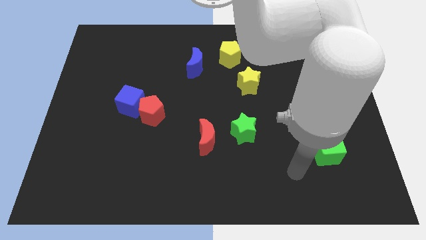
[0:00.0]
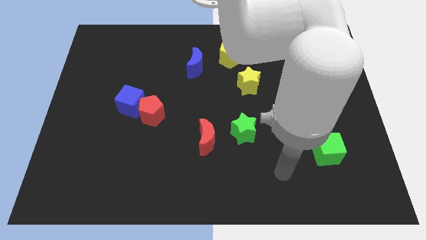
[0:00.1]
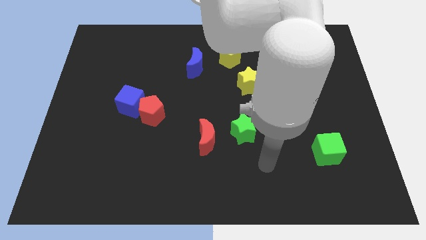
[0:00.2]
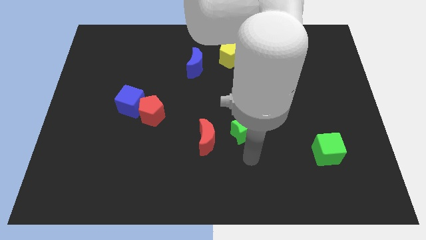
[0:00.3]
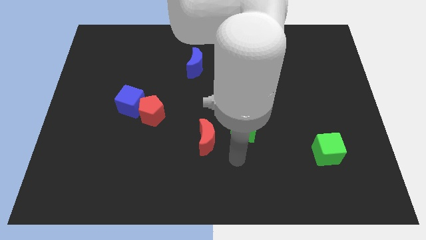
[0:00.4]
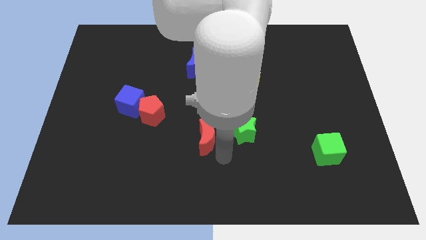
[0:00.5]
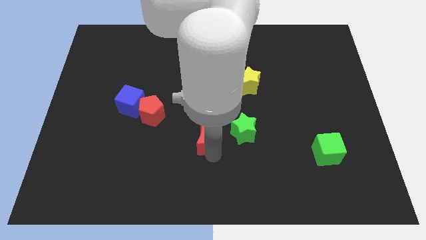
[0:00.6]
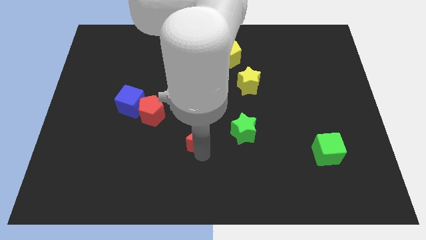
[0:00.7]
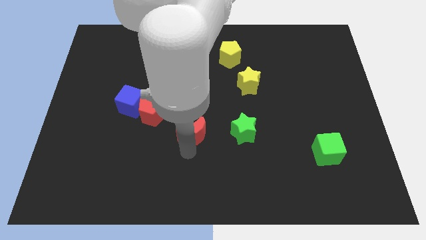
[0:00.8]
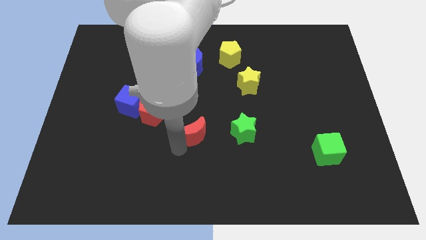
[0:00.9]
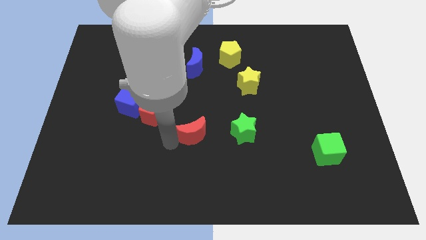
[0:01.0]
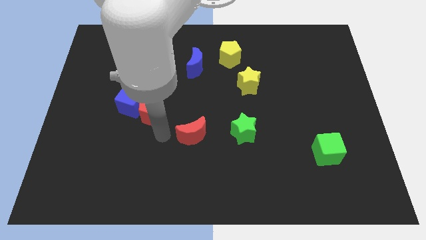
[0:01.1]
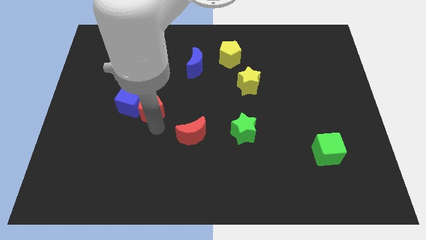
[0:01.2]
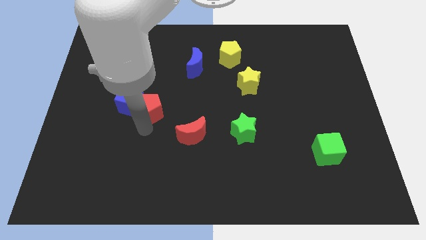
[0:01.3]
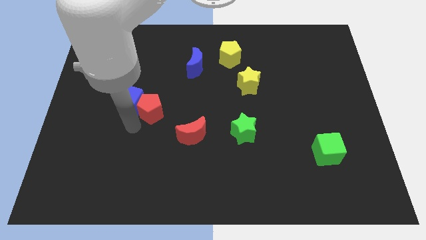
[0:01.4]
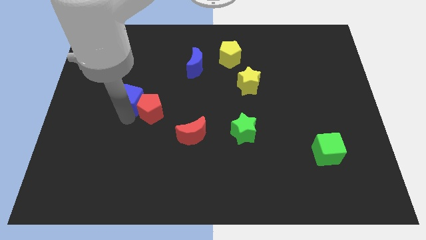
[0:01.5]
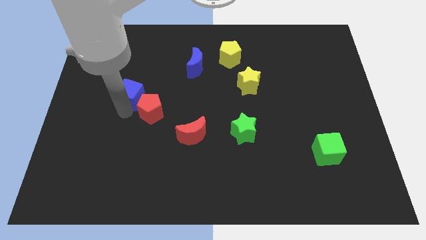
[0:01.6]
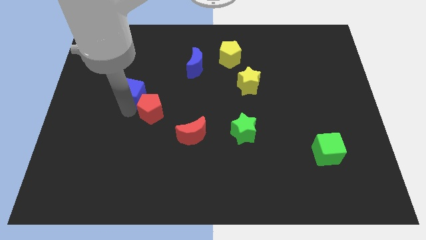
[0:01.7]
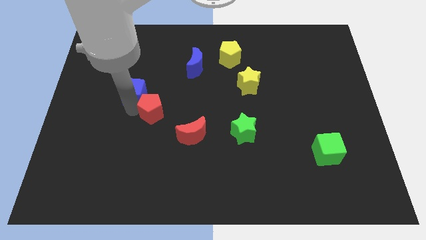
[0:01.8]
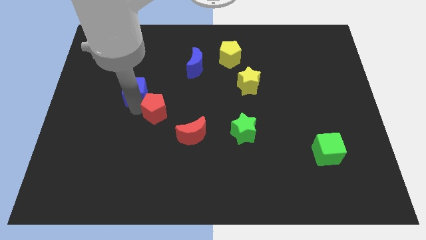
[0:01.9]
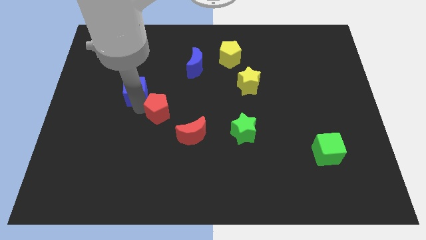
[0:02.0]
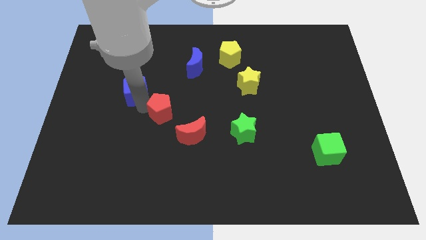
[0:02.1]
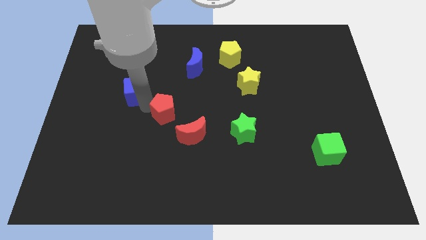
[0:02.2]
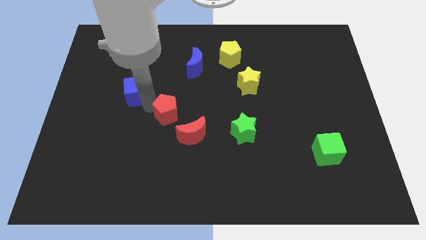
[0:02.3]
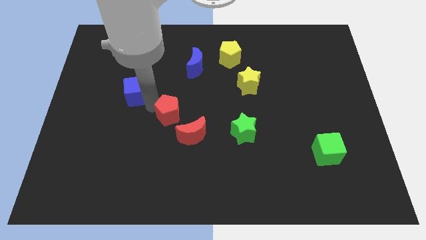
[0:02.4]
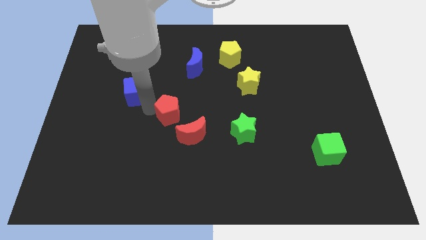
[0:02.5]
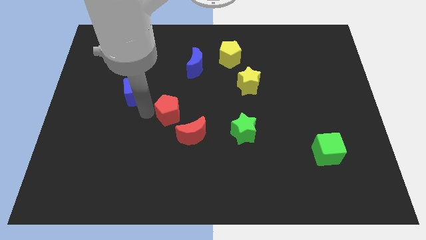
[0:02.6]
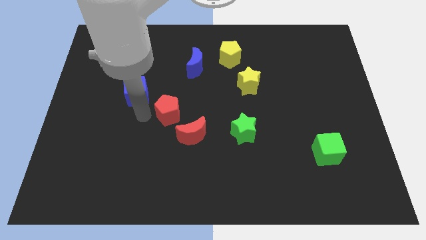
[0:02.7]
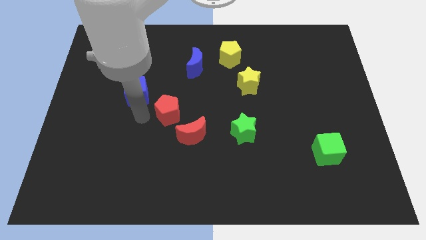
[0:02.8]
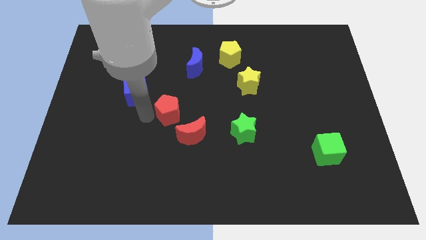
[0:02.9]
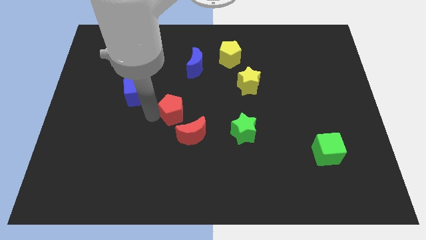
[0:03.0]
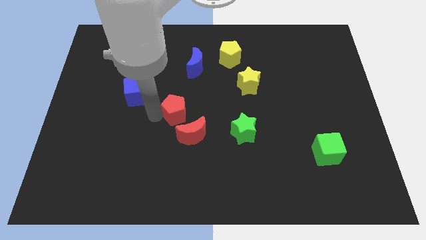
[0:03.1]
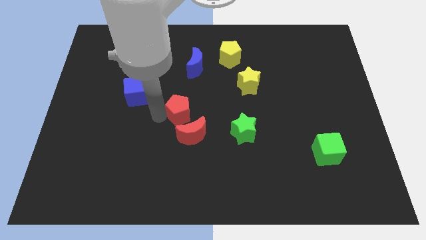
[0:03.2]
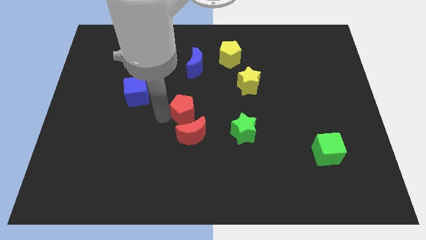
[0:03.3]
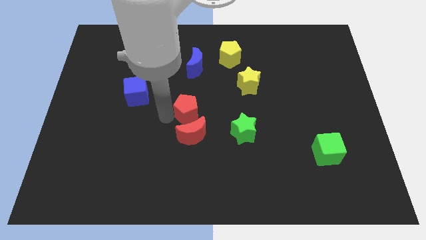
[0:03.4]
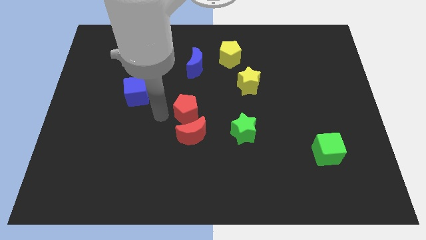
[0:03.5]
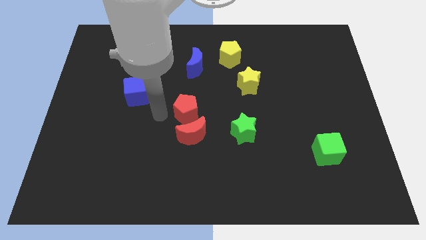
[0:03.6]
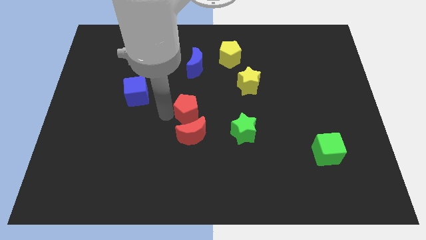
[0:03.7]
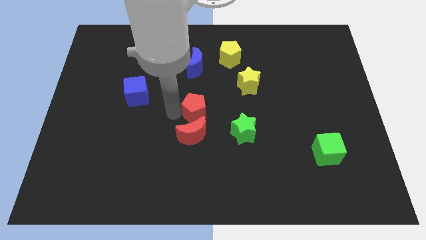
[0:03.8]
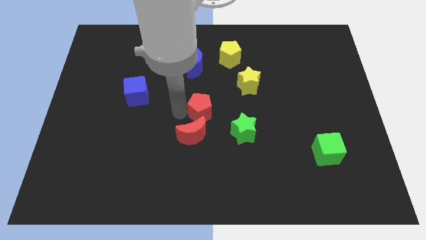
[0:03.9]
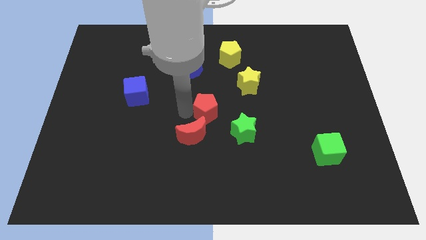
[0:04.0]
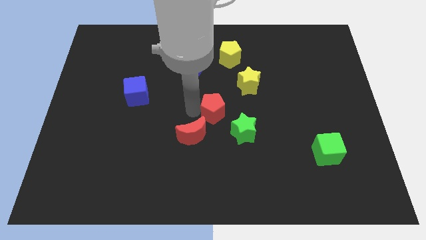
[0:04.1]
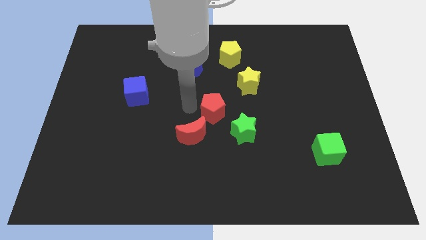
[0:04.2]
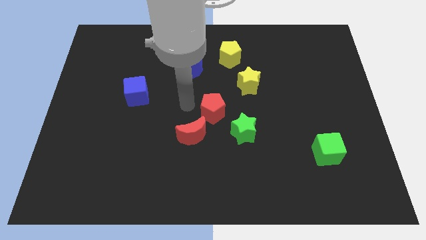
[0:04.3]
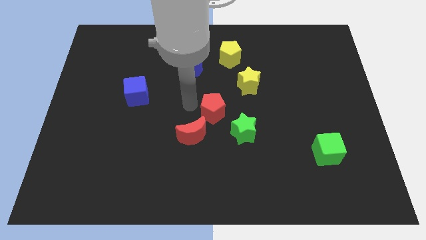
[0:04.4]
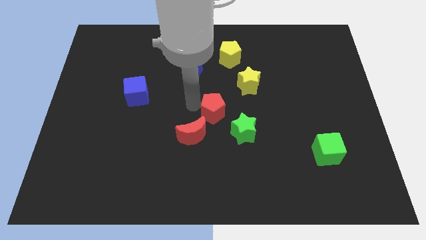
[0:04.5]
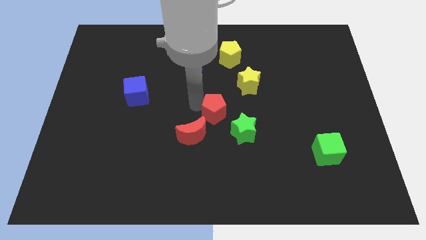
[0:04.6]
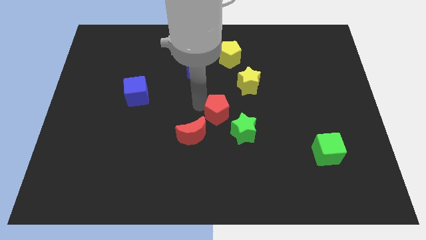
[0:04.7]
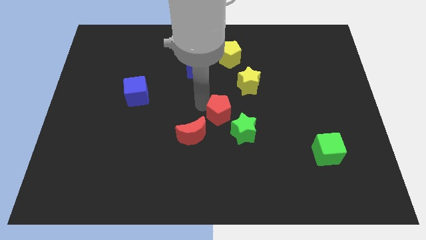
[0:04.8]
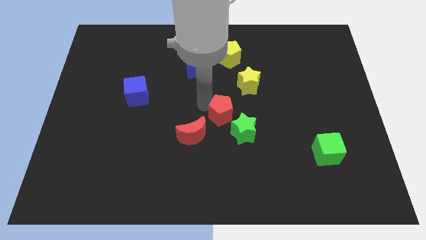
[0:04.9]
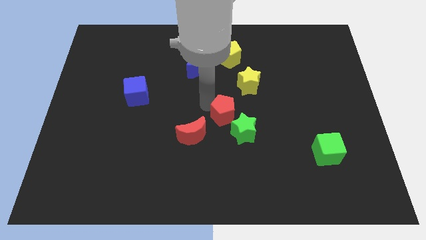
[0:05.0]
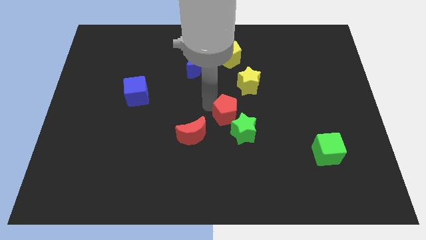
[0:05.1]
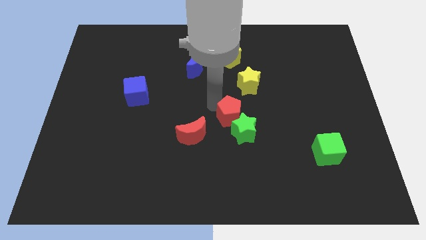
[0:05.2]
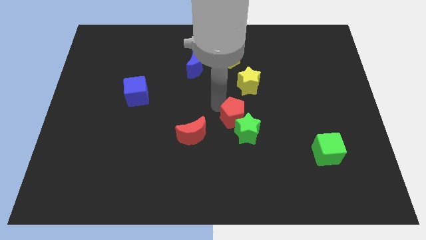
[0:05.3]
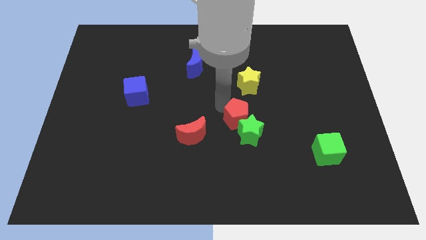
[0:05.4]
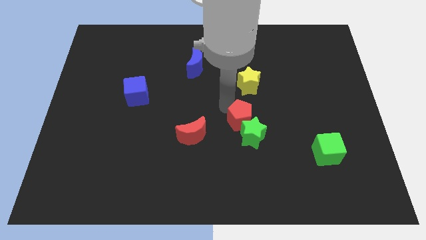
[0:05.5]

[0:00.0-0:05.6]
move the red pentagon right

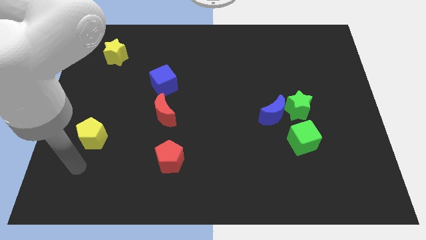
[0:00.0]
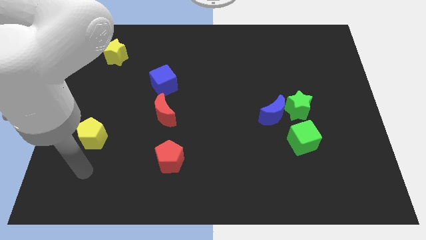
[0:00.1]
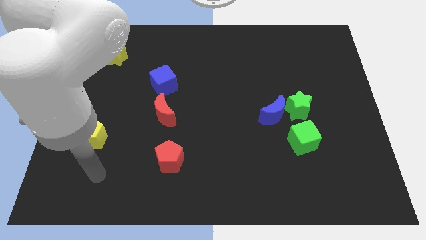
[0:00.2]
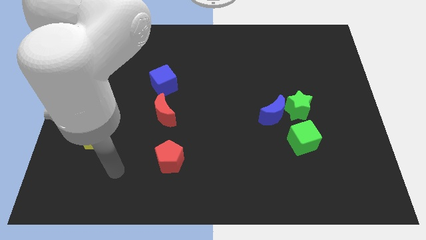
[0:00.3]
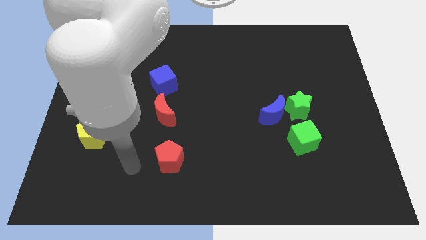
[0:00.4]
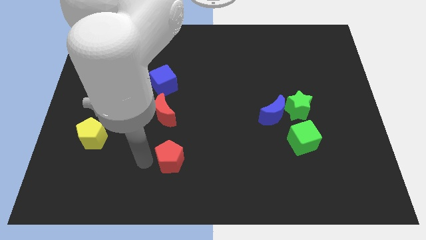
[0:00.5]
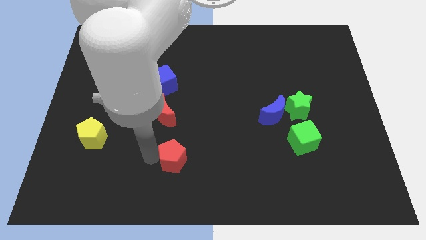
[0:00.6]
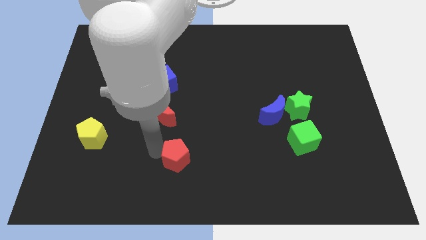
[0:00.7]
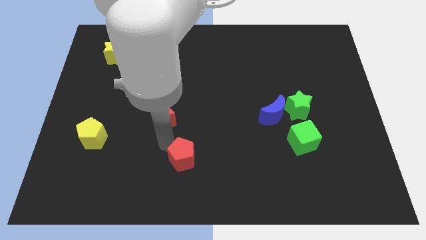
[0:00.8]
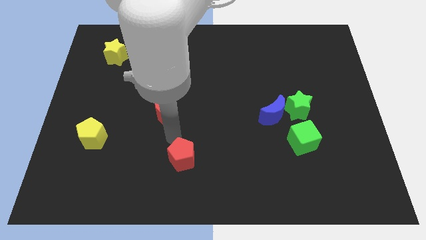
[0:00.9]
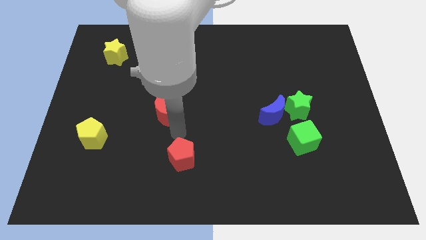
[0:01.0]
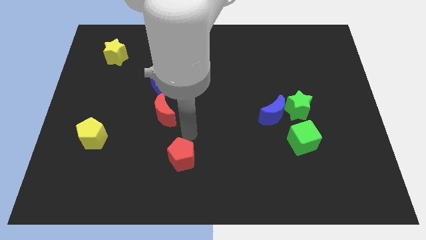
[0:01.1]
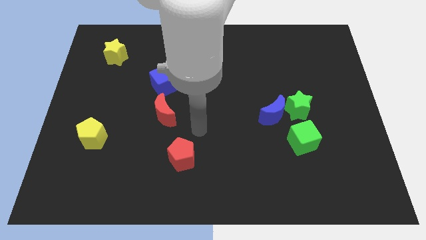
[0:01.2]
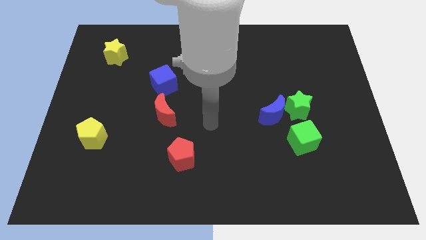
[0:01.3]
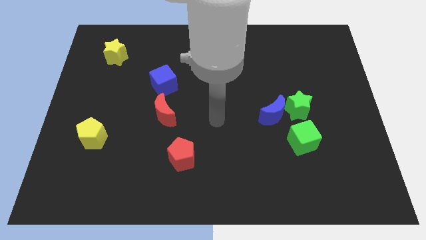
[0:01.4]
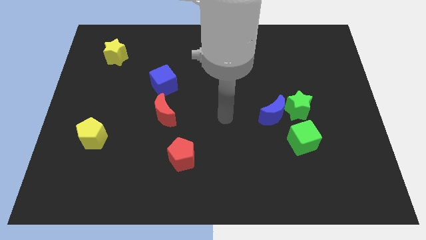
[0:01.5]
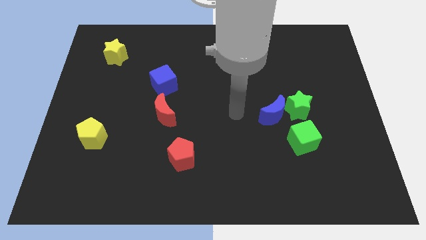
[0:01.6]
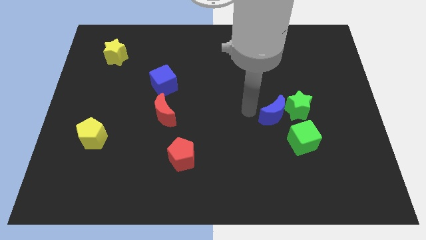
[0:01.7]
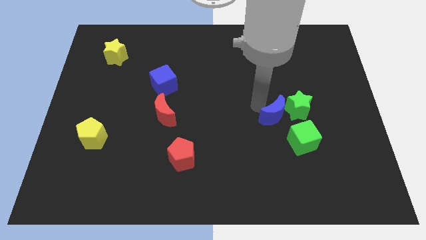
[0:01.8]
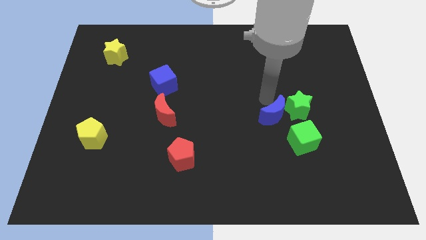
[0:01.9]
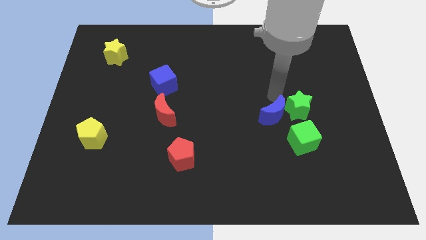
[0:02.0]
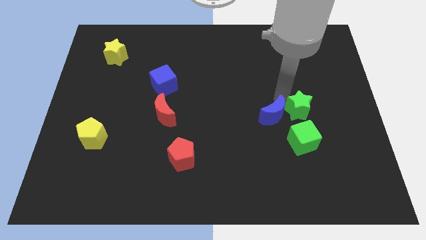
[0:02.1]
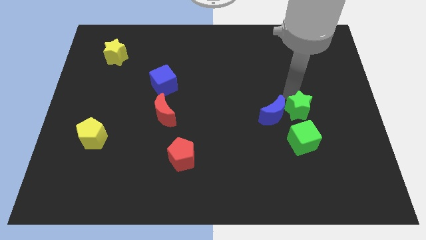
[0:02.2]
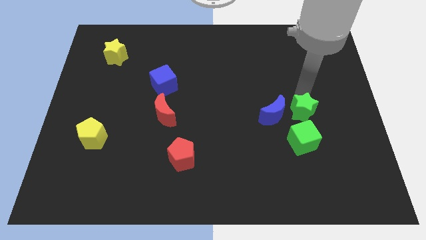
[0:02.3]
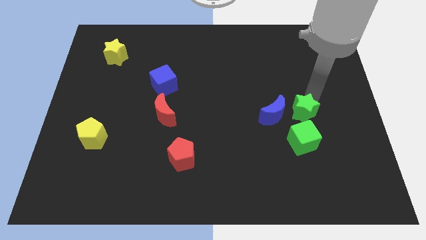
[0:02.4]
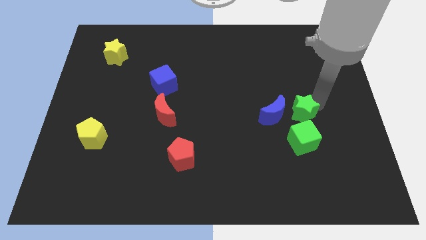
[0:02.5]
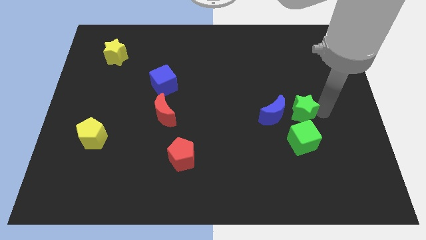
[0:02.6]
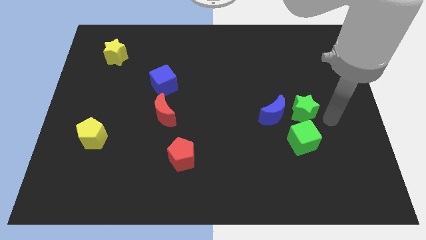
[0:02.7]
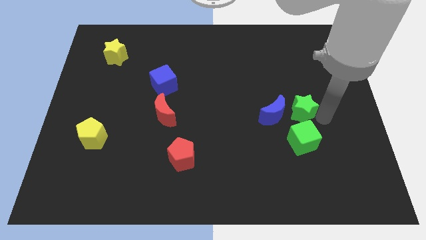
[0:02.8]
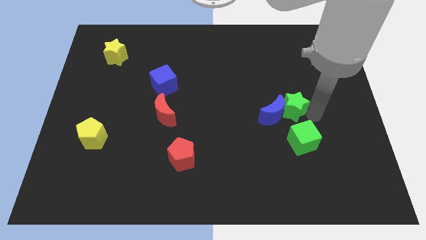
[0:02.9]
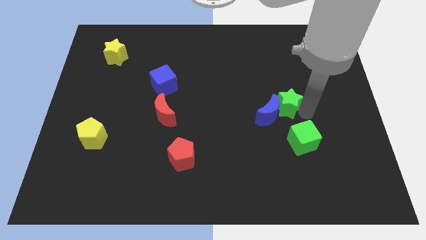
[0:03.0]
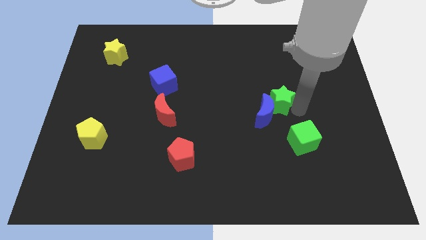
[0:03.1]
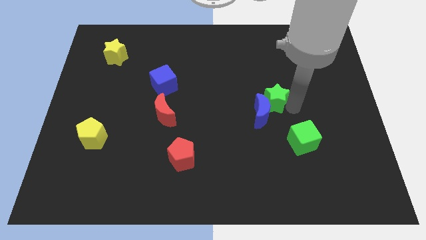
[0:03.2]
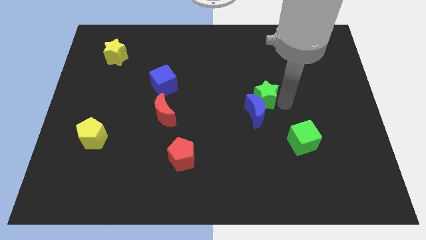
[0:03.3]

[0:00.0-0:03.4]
push the green star a bit left
